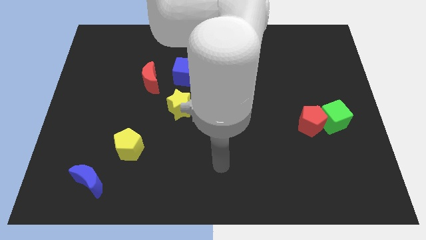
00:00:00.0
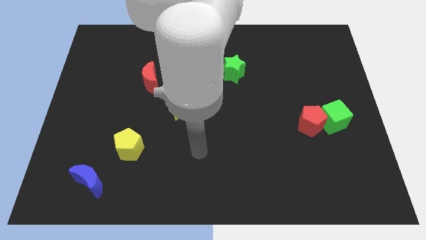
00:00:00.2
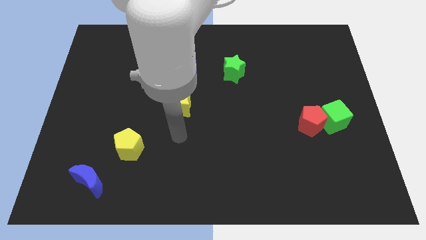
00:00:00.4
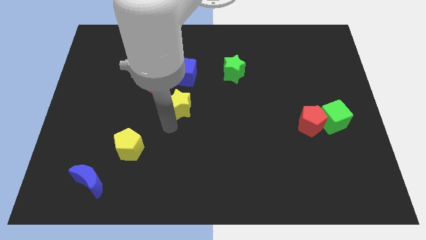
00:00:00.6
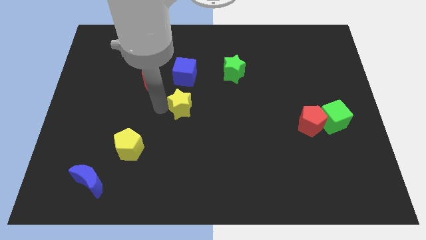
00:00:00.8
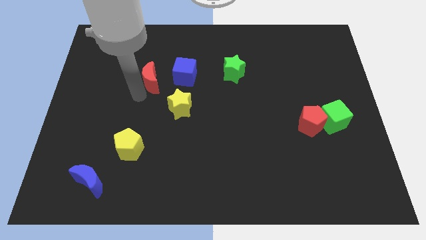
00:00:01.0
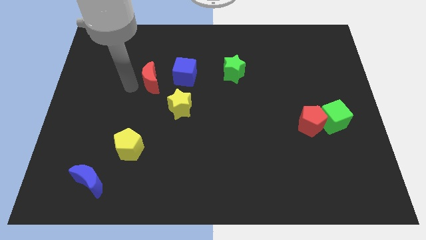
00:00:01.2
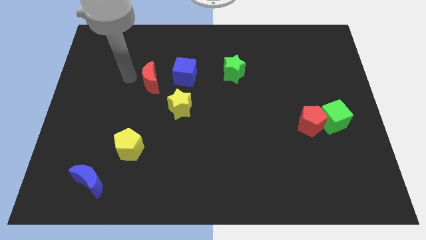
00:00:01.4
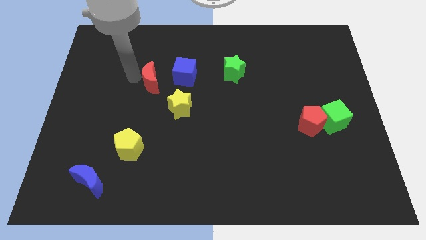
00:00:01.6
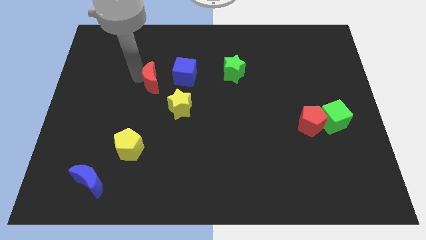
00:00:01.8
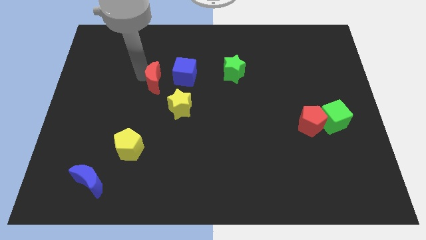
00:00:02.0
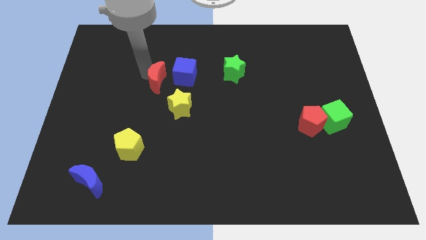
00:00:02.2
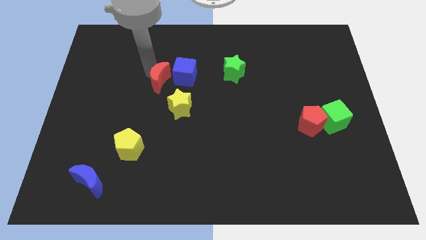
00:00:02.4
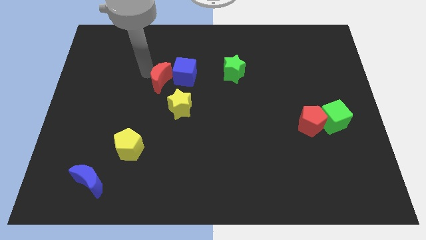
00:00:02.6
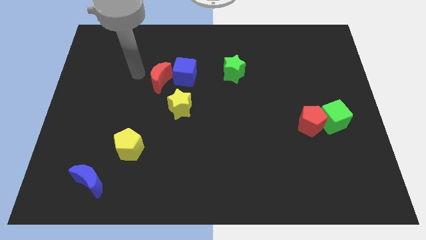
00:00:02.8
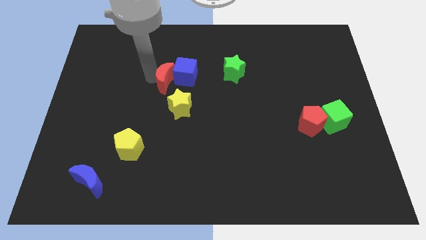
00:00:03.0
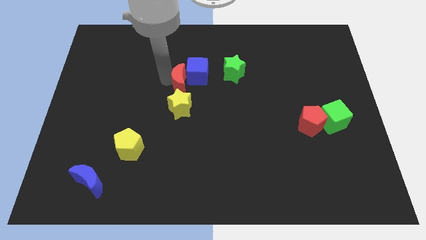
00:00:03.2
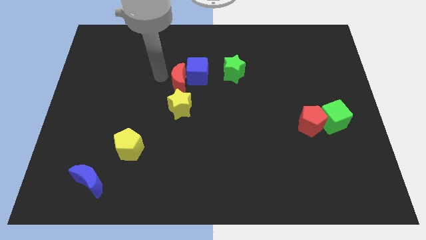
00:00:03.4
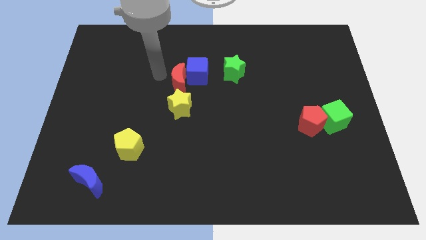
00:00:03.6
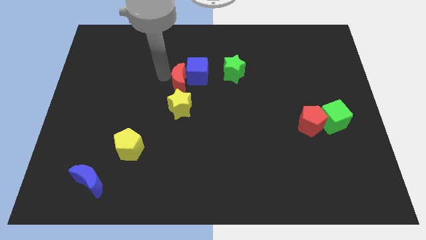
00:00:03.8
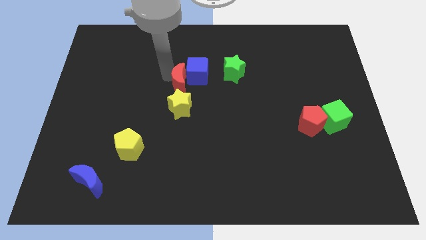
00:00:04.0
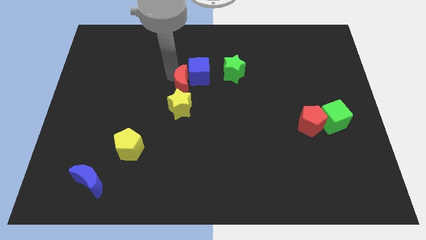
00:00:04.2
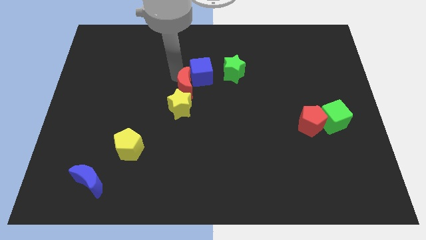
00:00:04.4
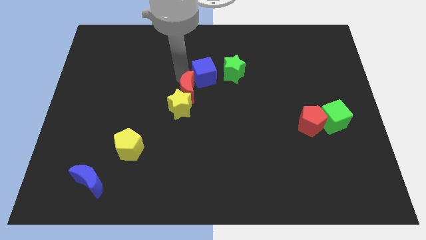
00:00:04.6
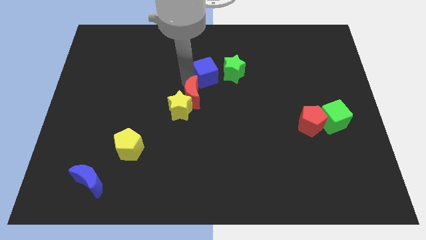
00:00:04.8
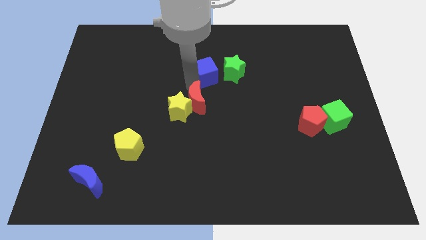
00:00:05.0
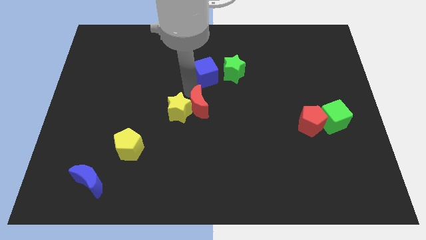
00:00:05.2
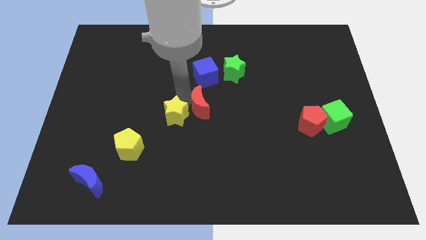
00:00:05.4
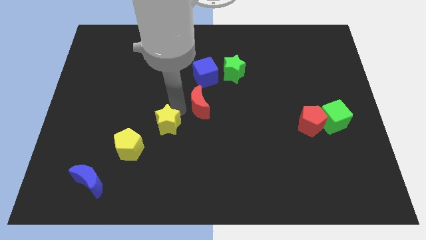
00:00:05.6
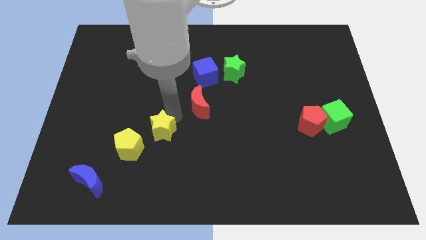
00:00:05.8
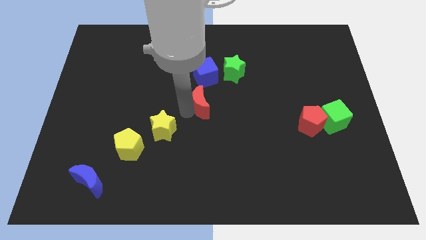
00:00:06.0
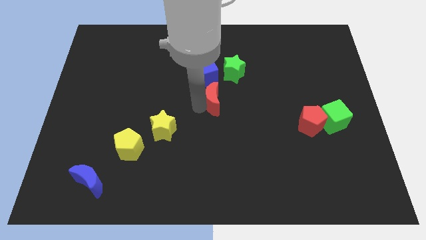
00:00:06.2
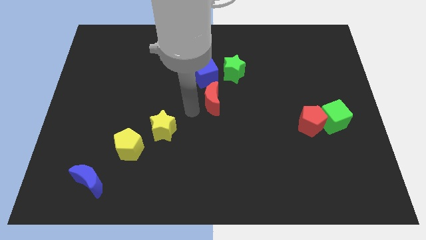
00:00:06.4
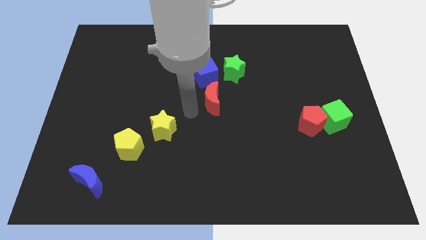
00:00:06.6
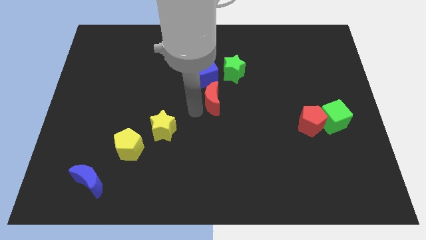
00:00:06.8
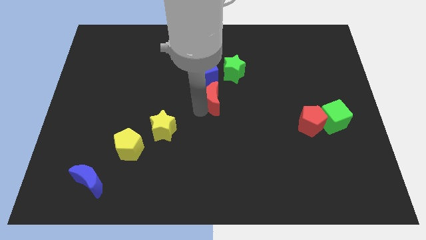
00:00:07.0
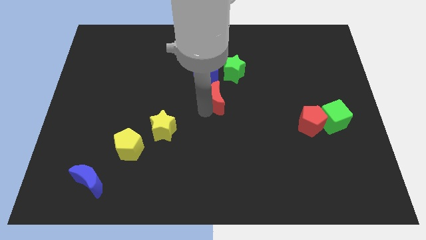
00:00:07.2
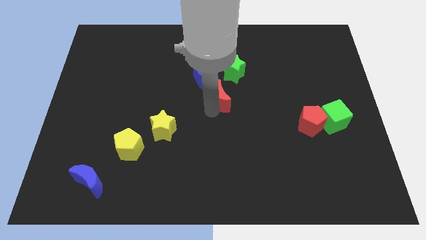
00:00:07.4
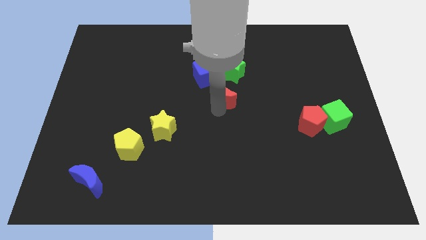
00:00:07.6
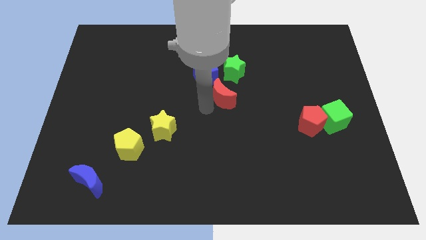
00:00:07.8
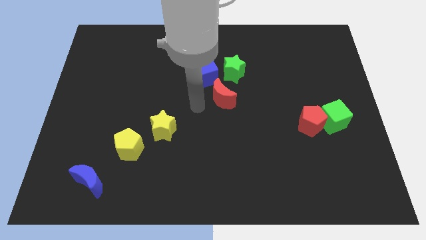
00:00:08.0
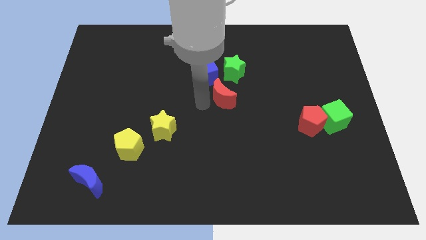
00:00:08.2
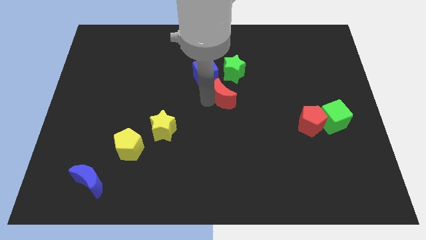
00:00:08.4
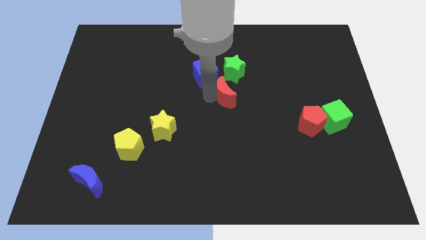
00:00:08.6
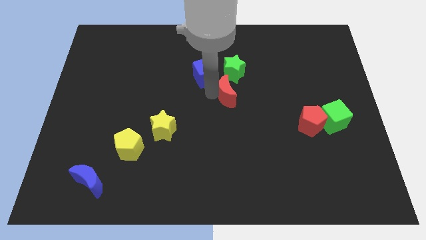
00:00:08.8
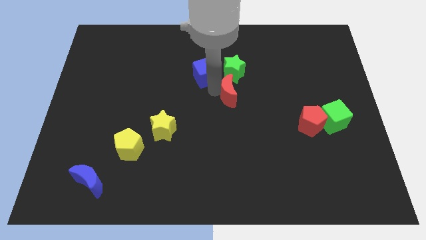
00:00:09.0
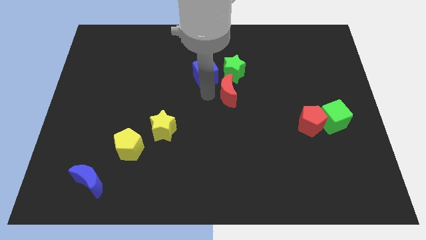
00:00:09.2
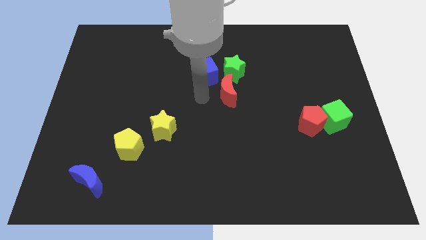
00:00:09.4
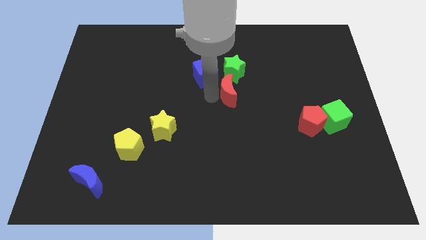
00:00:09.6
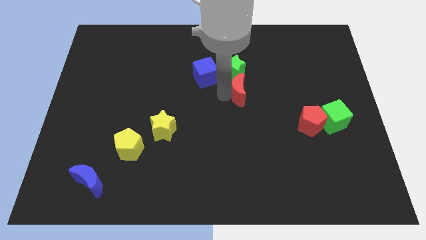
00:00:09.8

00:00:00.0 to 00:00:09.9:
slide the red moon right

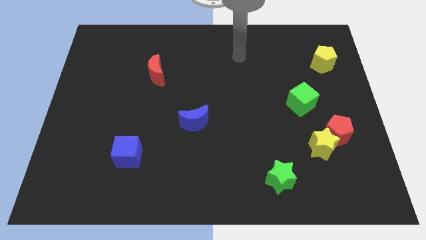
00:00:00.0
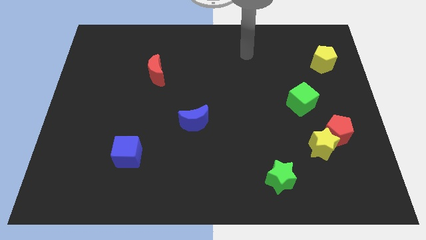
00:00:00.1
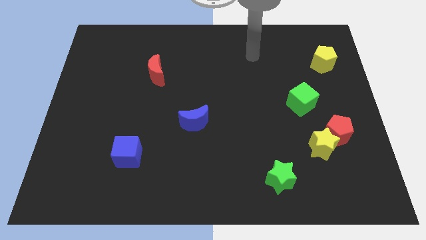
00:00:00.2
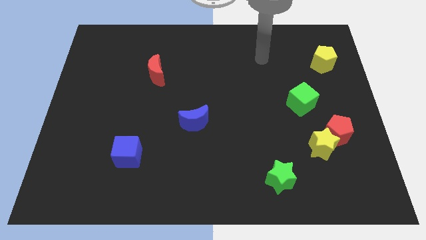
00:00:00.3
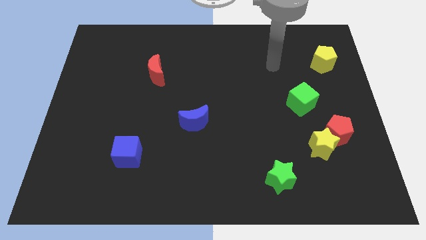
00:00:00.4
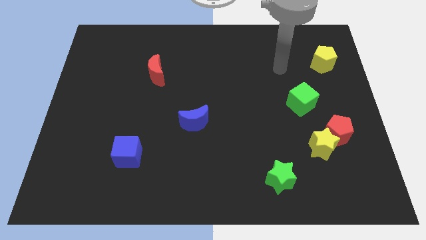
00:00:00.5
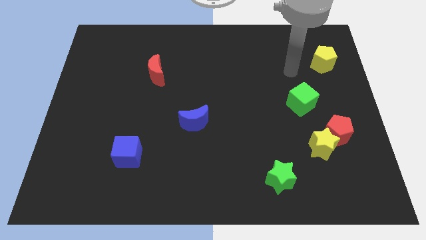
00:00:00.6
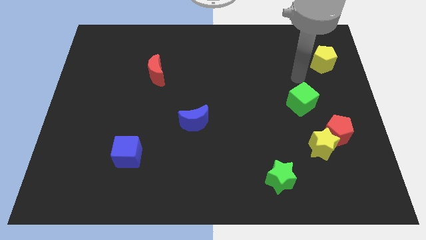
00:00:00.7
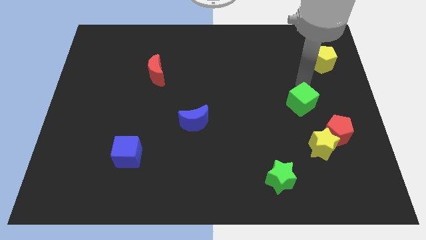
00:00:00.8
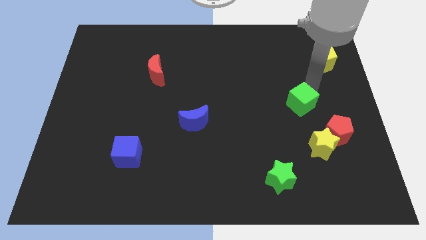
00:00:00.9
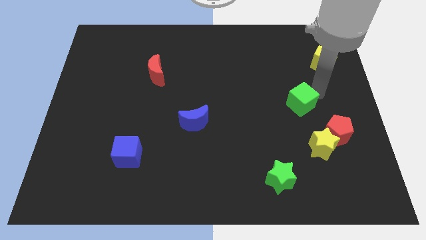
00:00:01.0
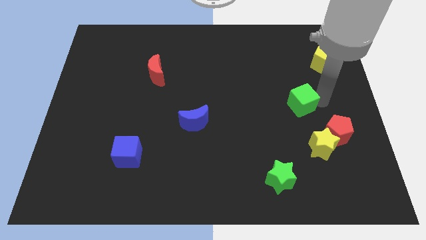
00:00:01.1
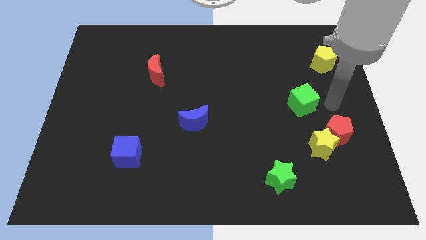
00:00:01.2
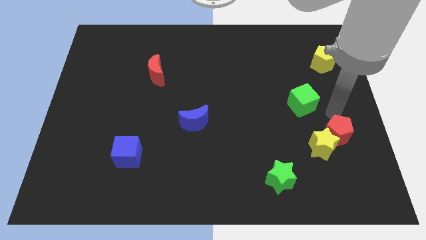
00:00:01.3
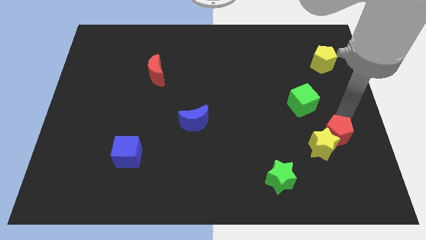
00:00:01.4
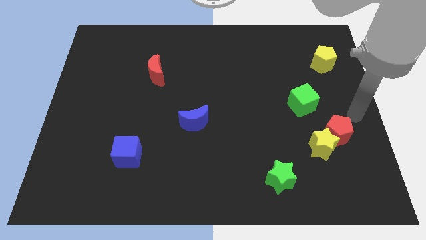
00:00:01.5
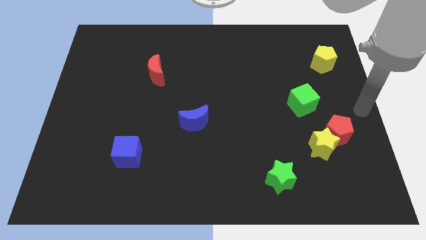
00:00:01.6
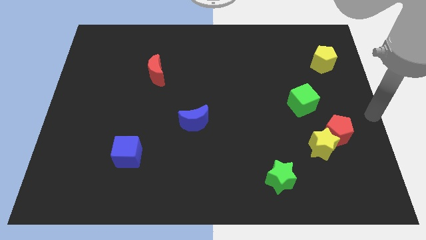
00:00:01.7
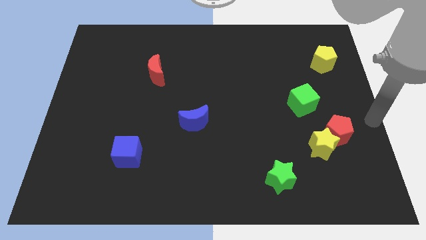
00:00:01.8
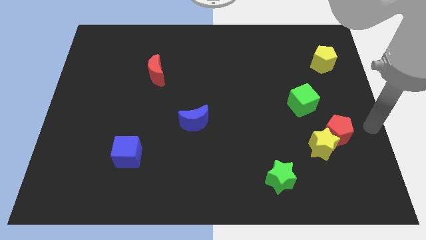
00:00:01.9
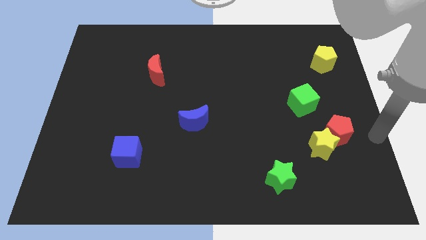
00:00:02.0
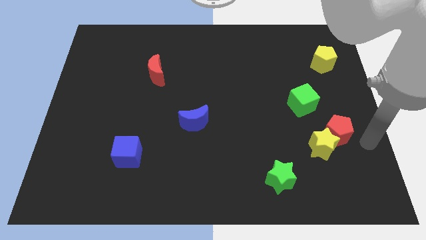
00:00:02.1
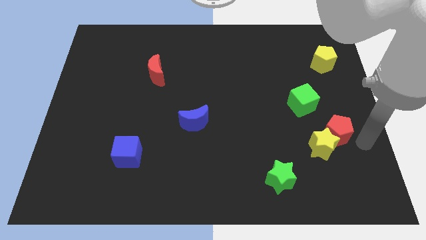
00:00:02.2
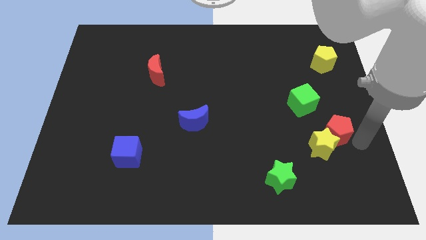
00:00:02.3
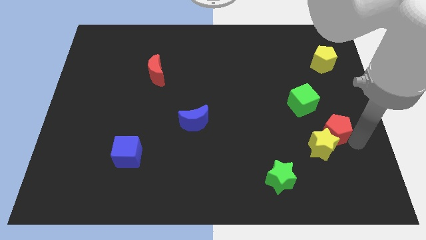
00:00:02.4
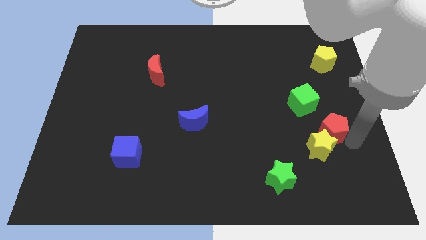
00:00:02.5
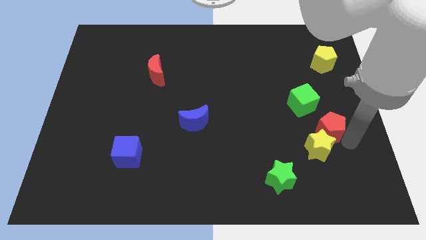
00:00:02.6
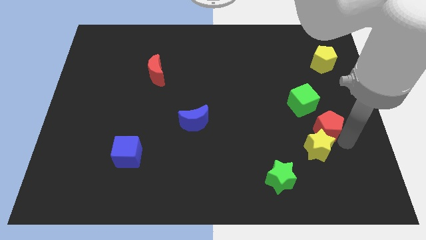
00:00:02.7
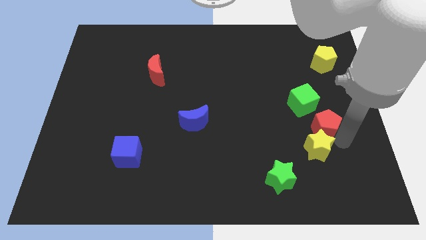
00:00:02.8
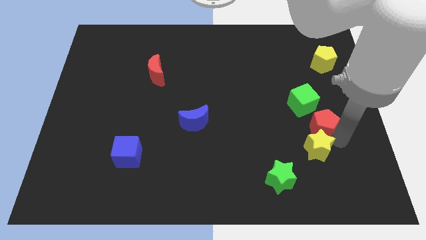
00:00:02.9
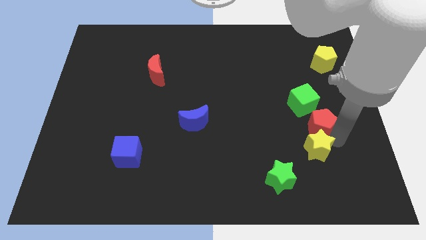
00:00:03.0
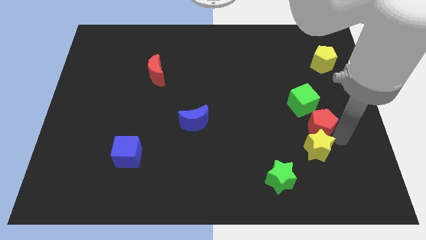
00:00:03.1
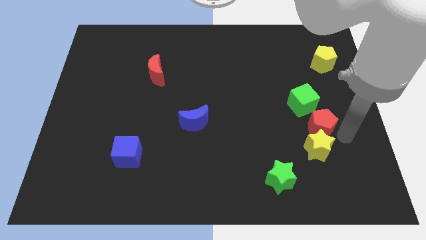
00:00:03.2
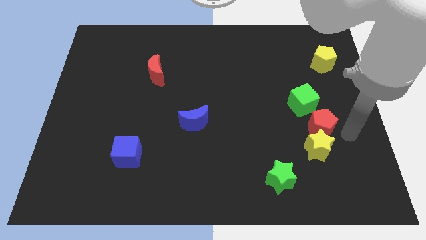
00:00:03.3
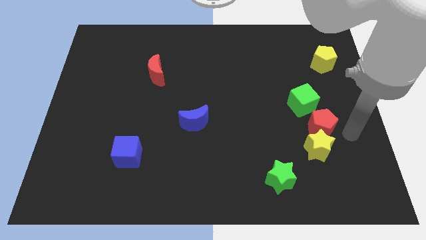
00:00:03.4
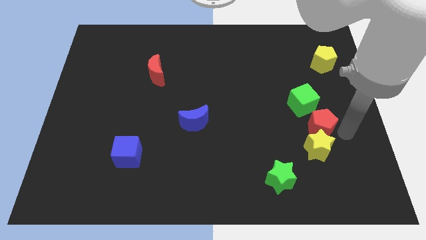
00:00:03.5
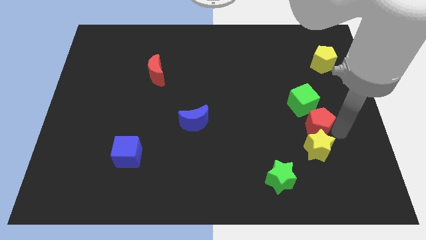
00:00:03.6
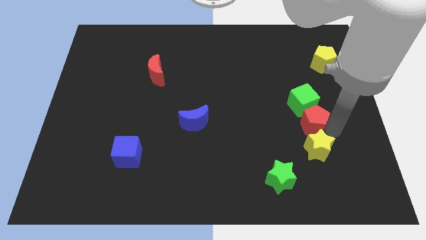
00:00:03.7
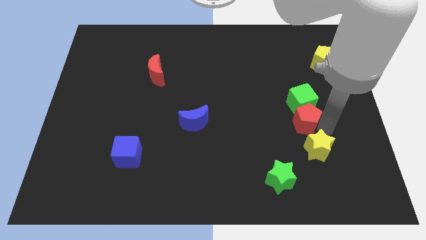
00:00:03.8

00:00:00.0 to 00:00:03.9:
slightly push the red pentagon upwards and left
